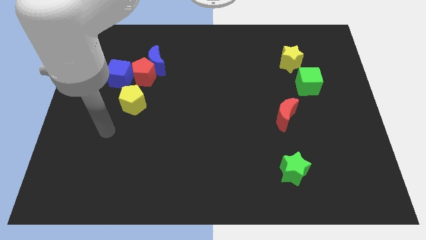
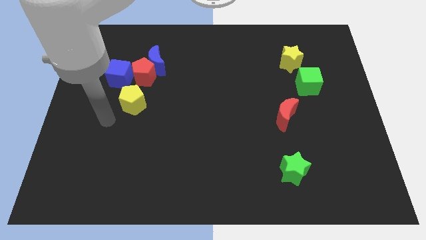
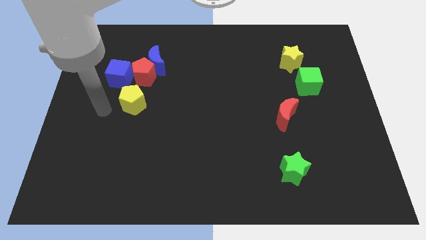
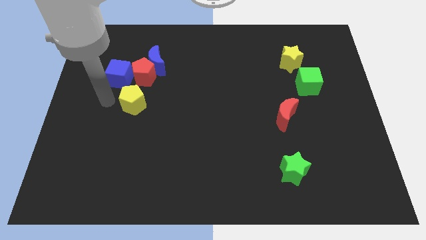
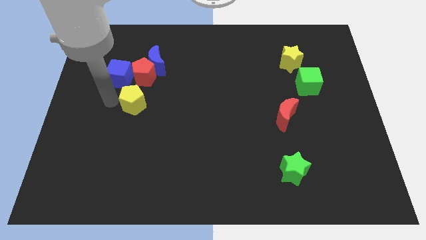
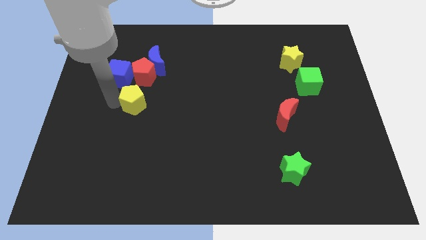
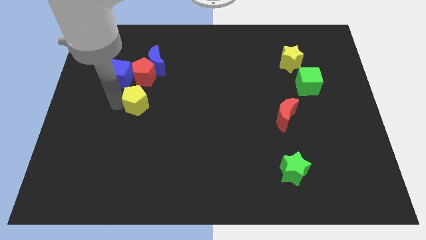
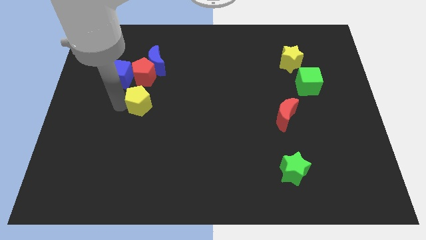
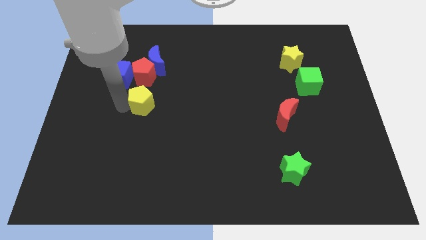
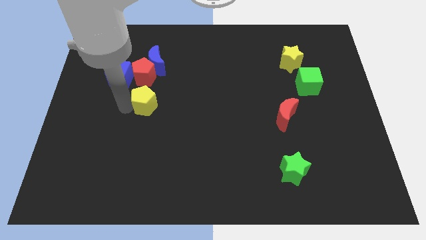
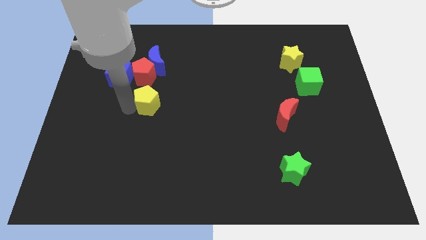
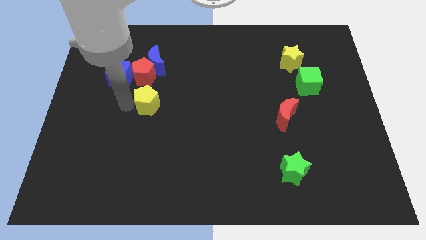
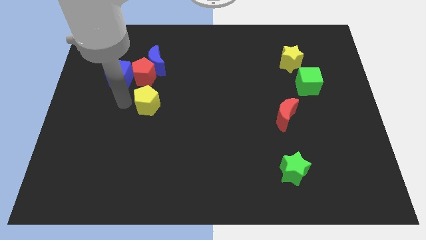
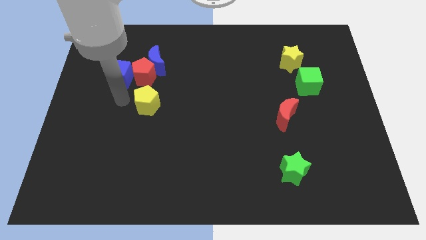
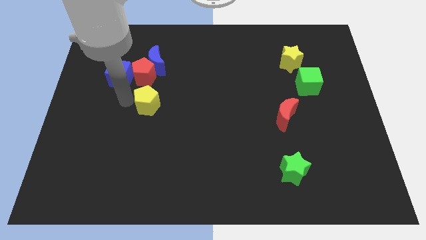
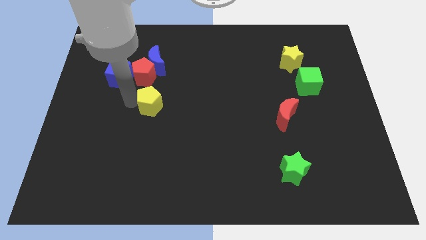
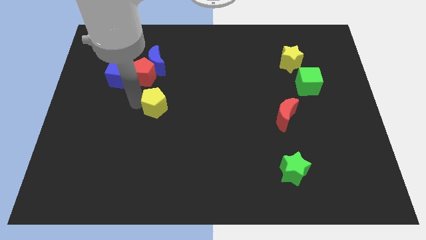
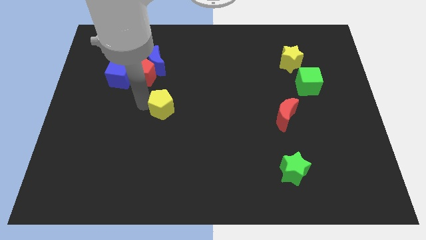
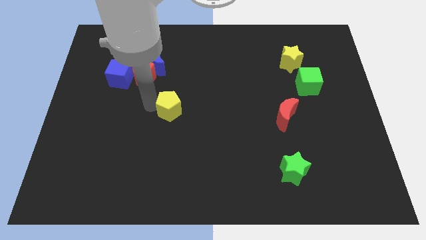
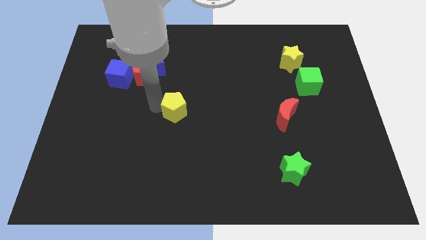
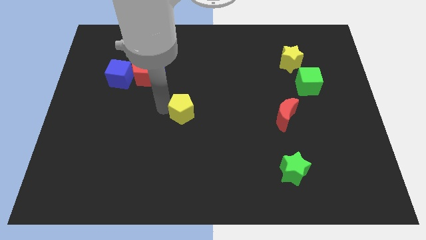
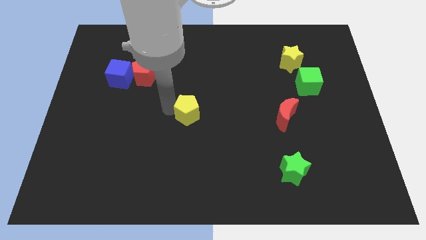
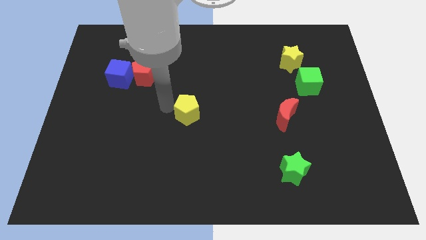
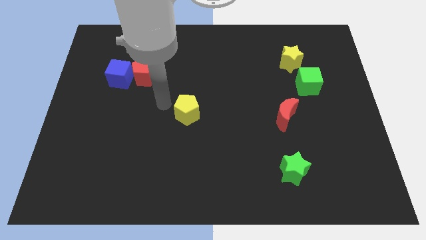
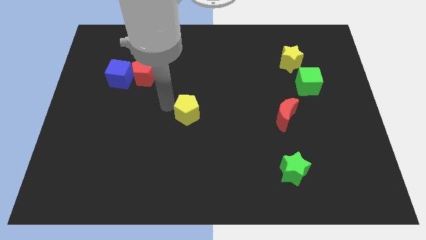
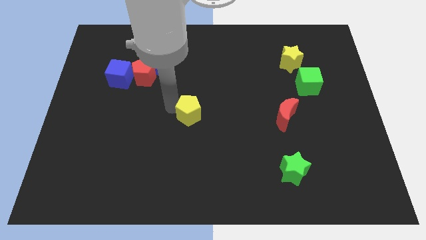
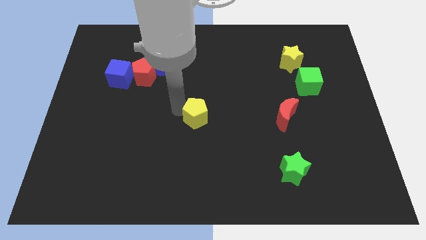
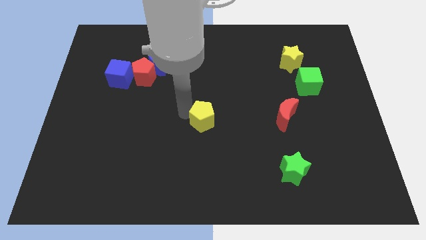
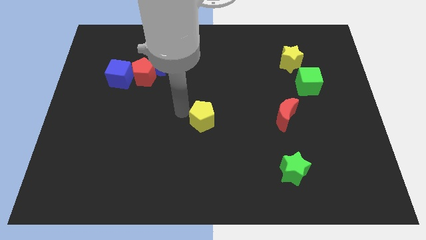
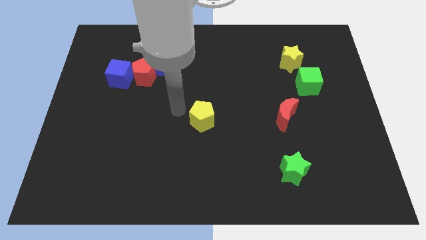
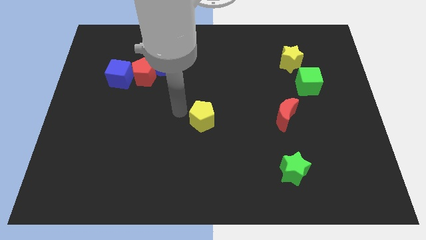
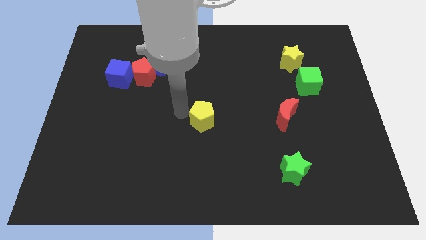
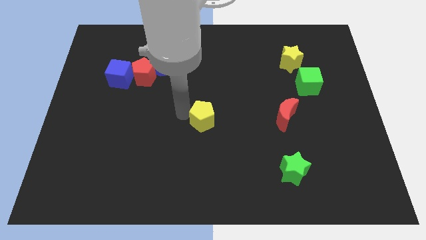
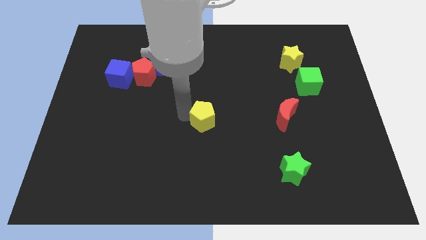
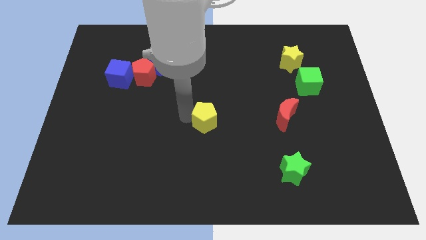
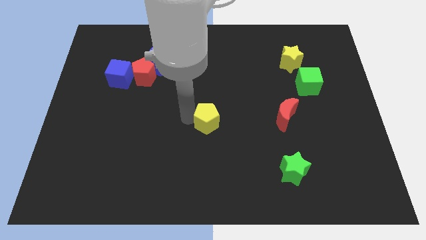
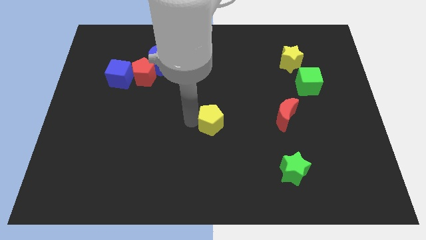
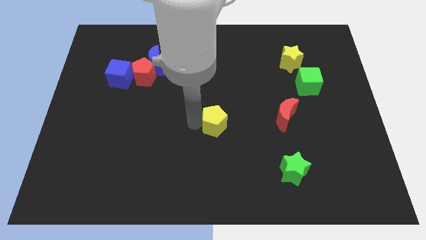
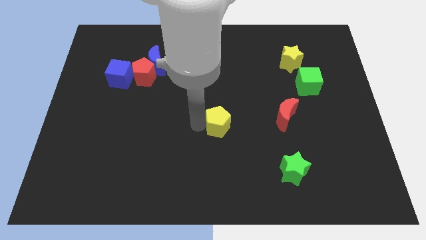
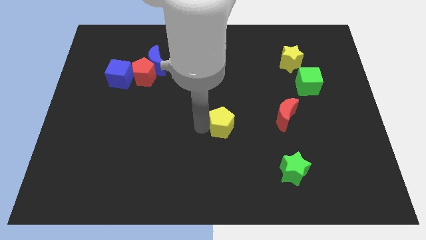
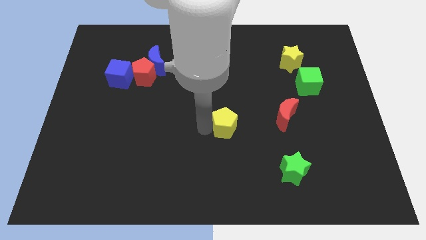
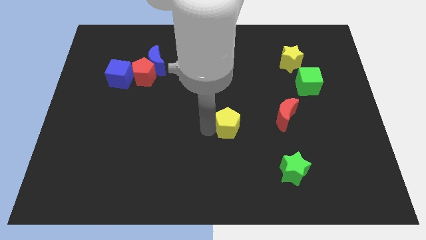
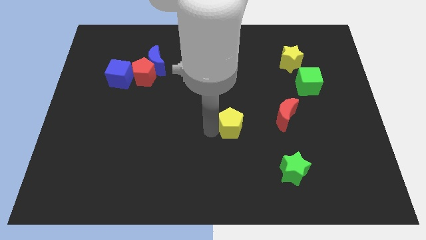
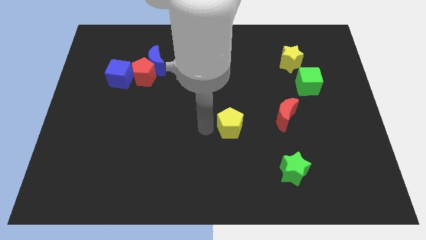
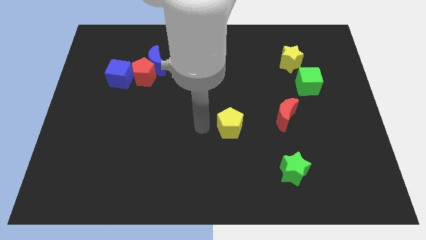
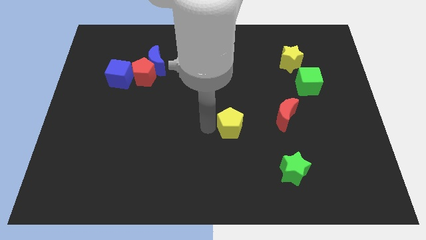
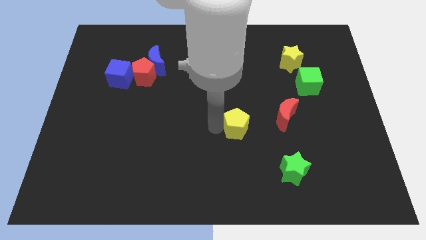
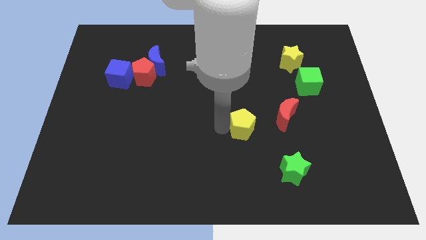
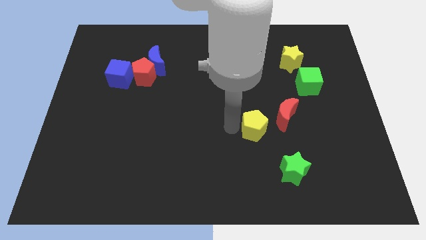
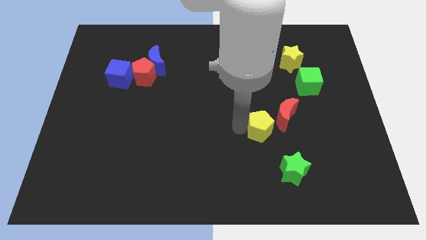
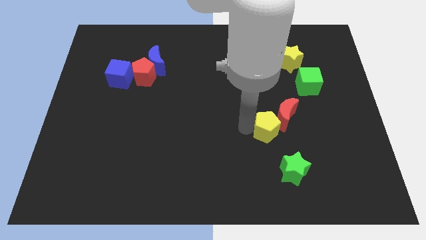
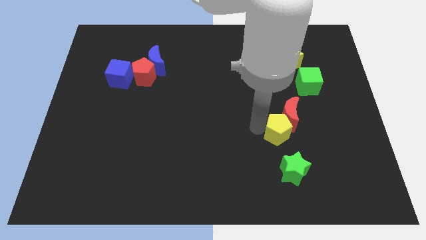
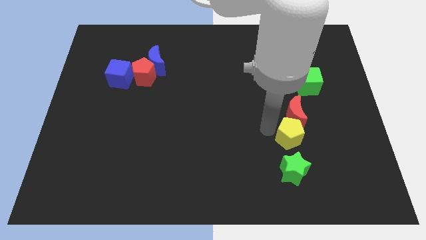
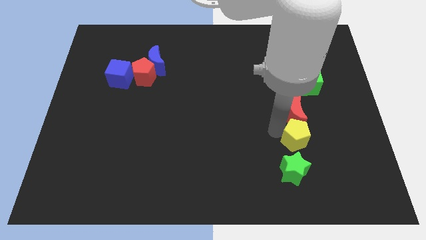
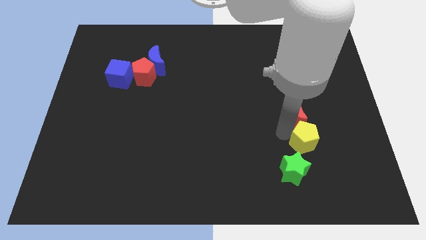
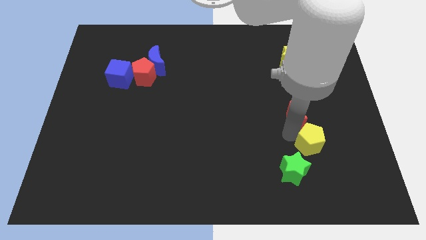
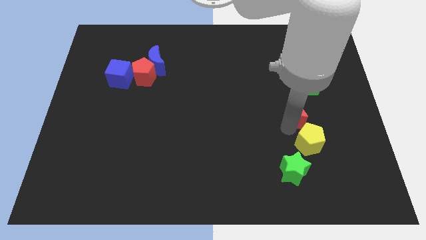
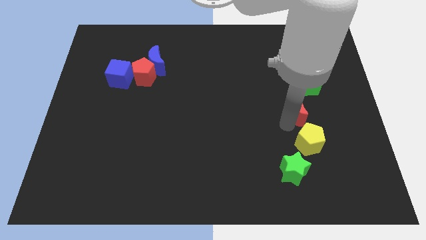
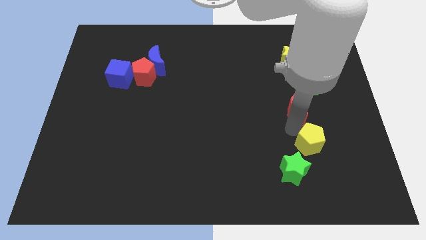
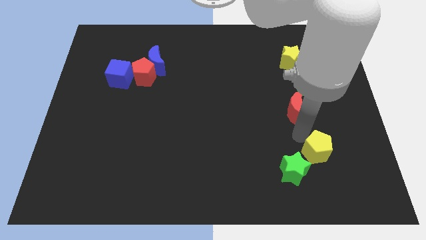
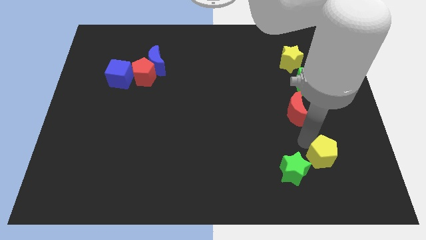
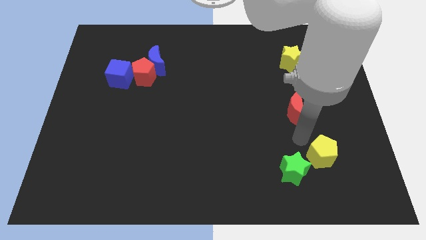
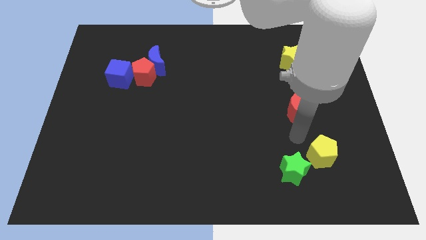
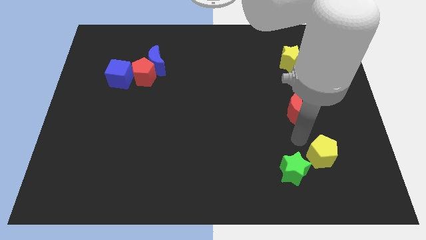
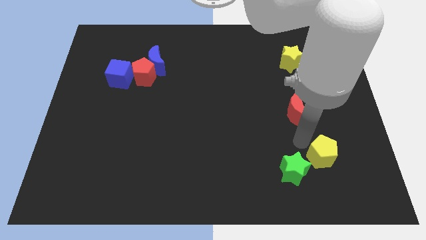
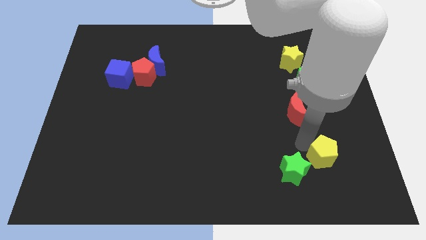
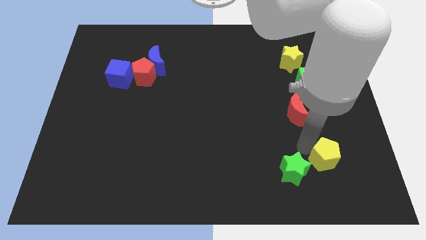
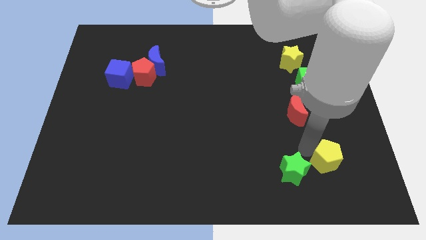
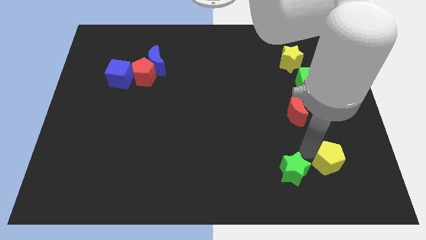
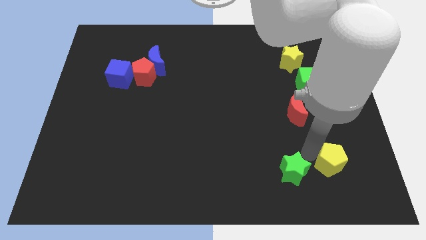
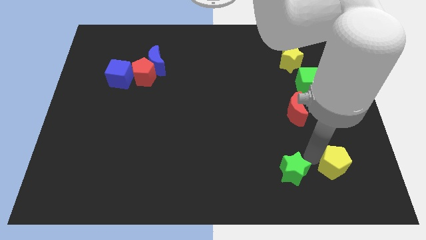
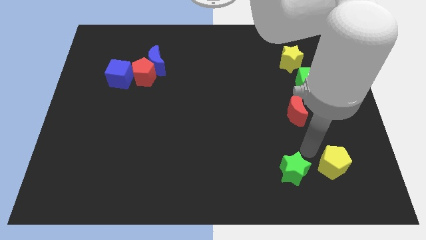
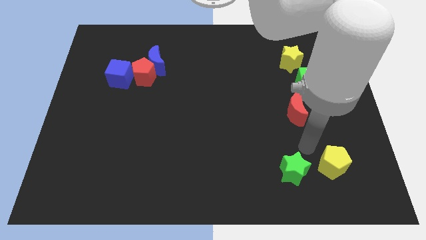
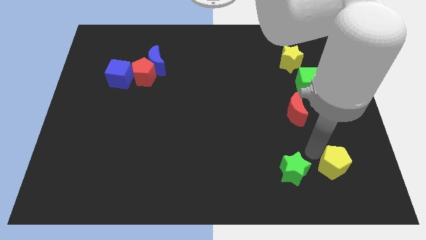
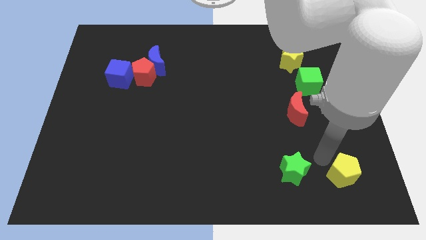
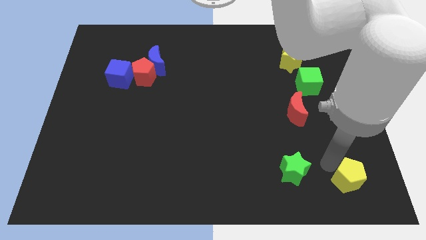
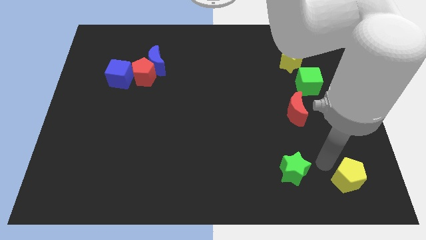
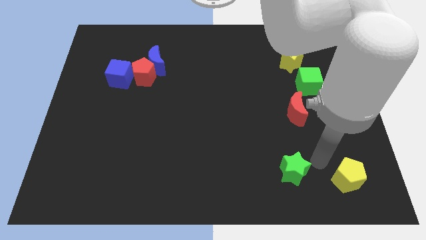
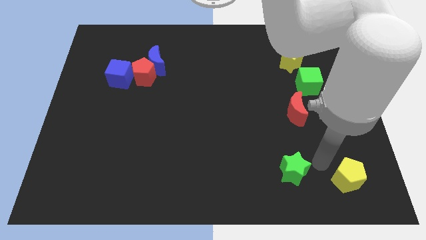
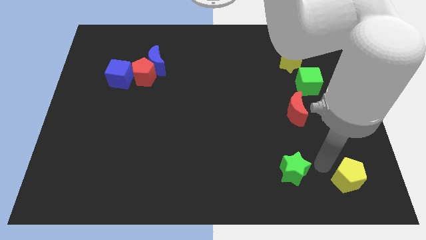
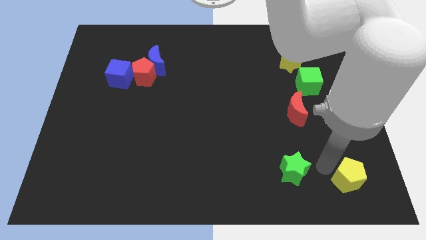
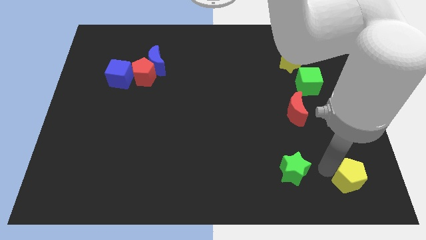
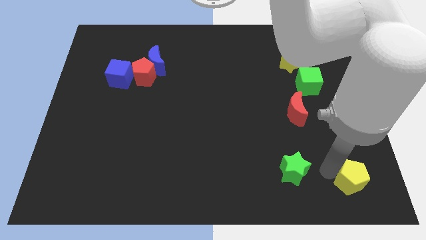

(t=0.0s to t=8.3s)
push the yellow pentagon to the bottom right
